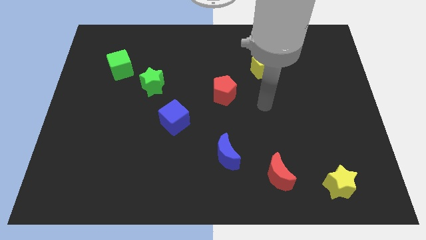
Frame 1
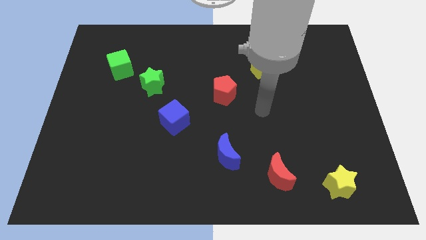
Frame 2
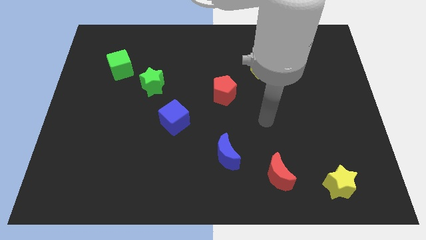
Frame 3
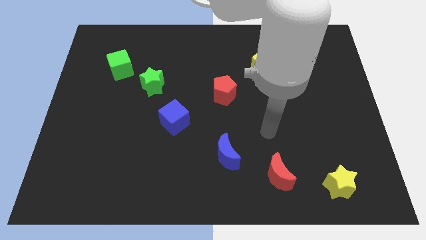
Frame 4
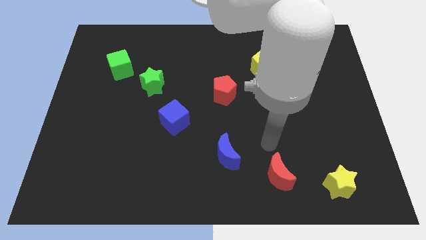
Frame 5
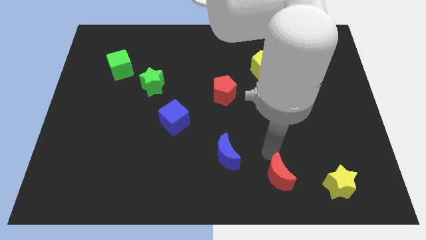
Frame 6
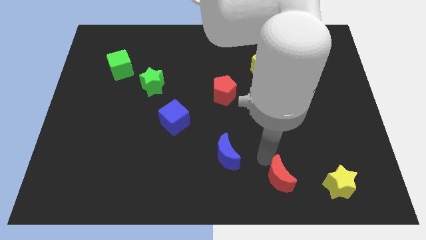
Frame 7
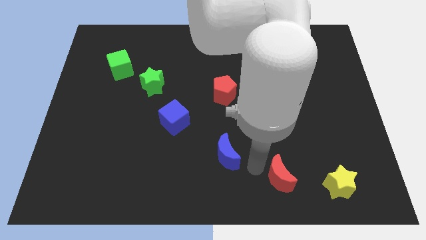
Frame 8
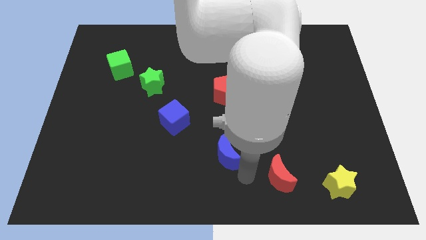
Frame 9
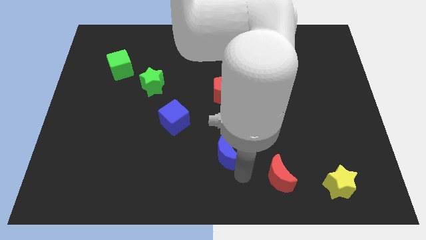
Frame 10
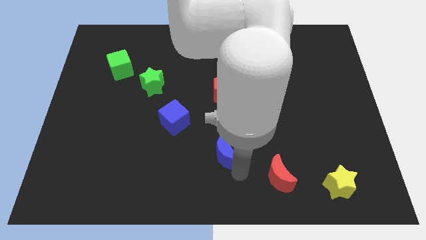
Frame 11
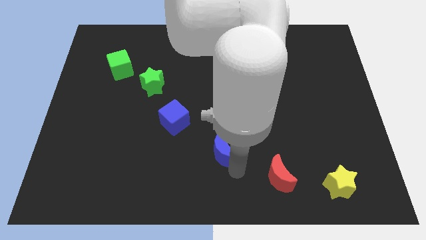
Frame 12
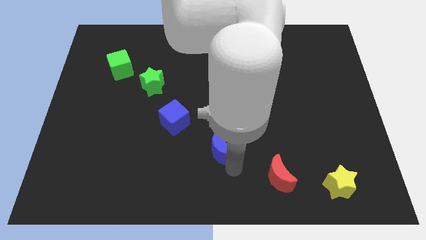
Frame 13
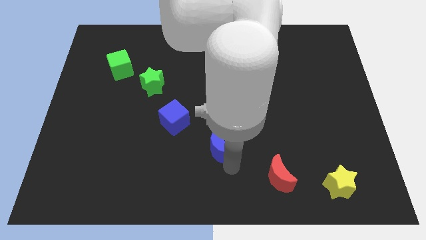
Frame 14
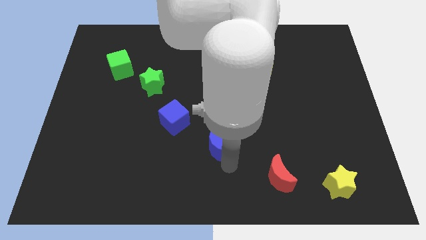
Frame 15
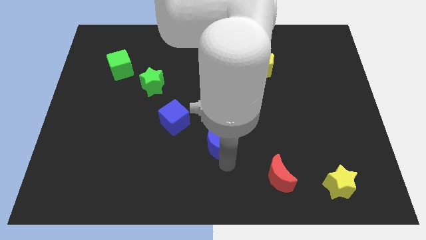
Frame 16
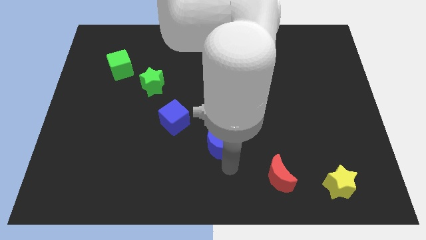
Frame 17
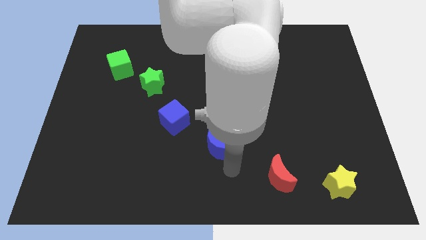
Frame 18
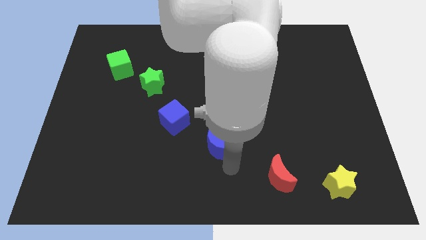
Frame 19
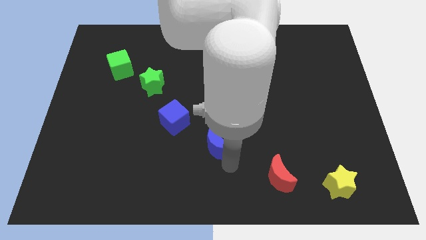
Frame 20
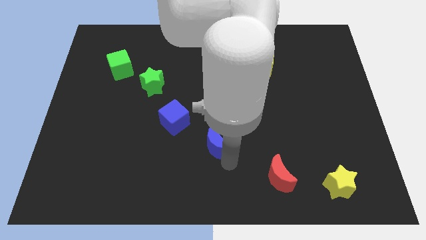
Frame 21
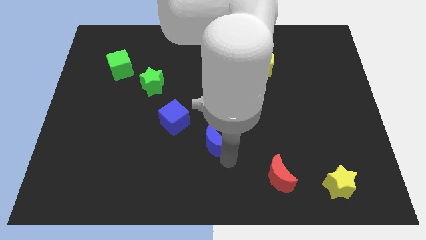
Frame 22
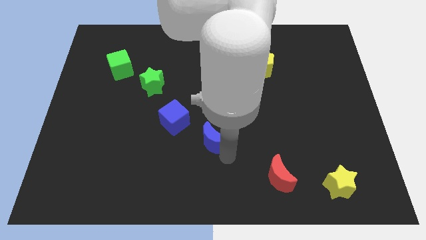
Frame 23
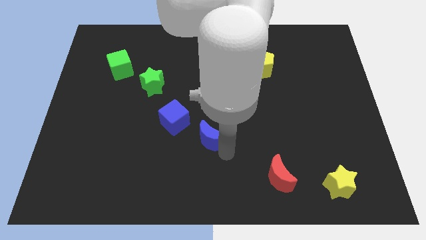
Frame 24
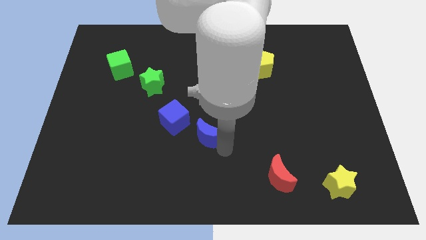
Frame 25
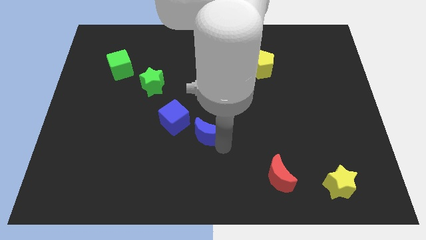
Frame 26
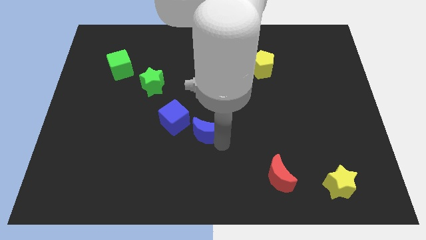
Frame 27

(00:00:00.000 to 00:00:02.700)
slightly slide the blue moon up and left

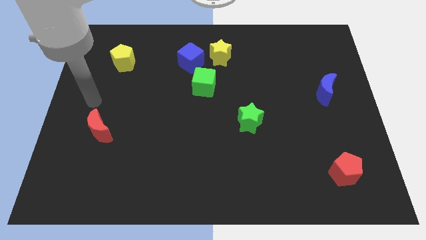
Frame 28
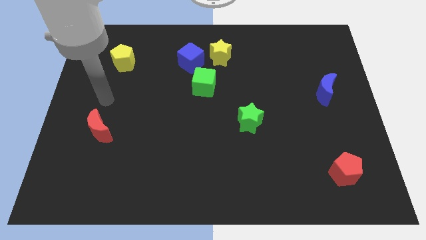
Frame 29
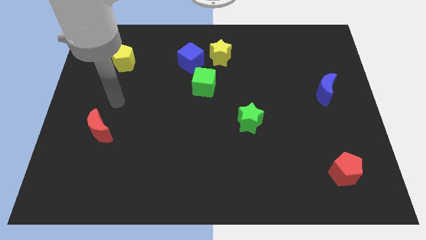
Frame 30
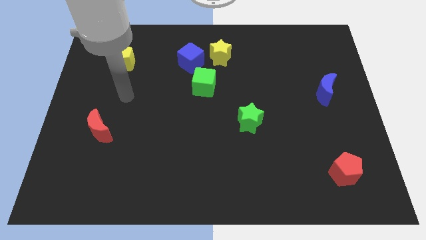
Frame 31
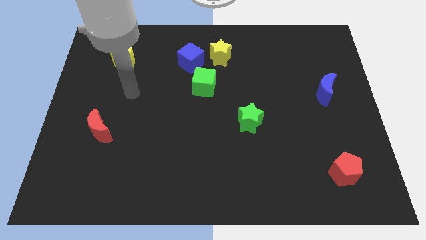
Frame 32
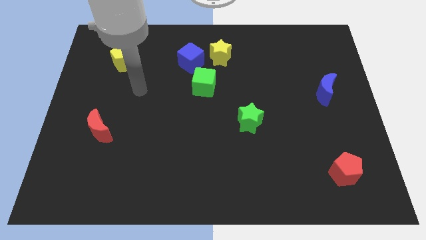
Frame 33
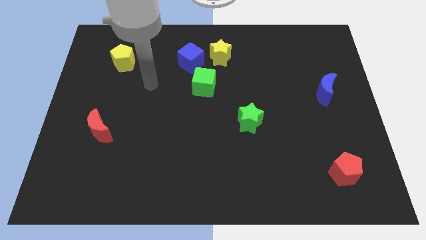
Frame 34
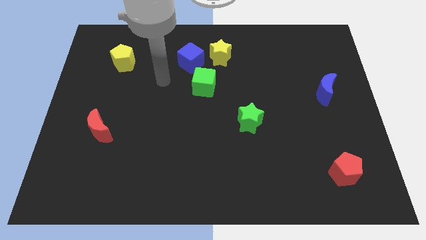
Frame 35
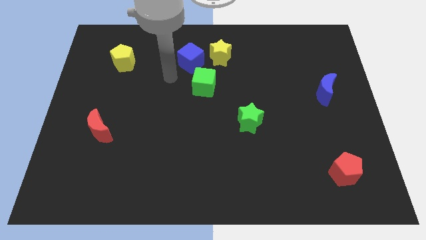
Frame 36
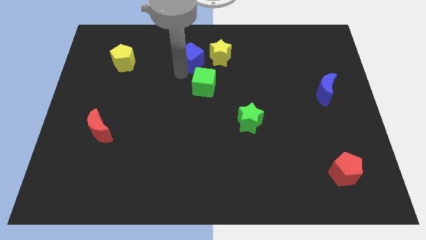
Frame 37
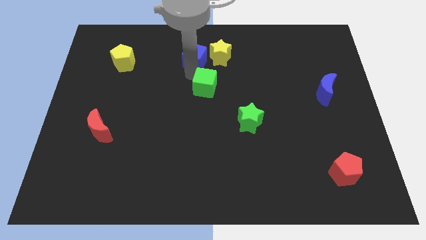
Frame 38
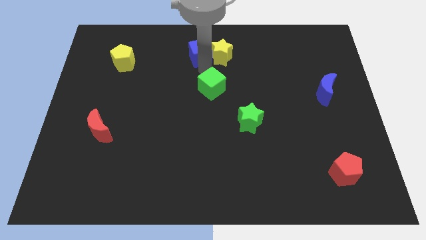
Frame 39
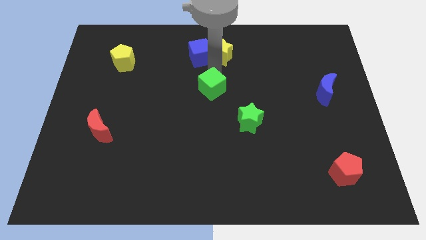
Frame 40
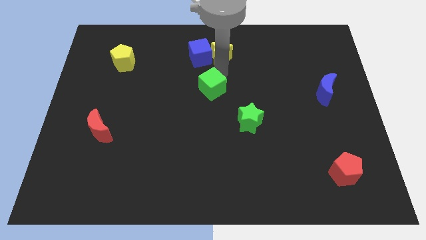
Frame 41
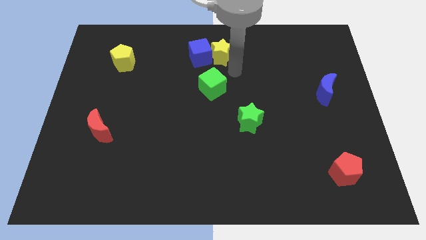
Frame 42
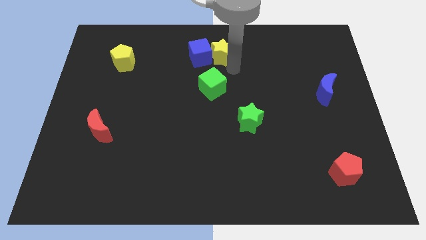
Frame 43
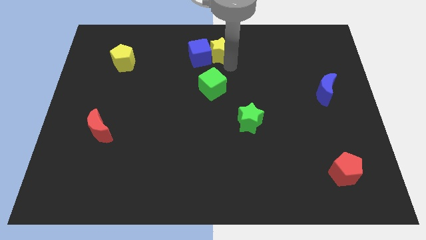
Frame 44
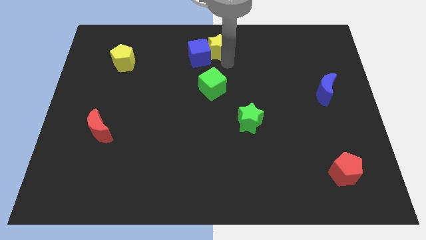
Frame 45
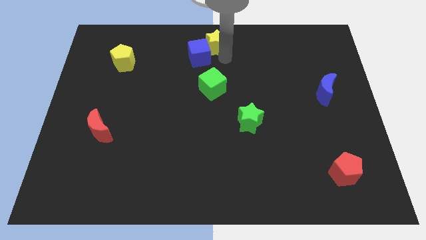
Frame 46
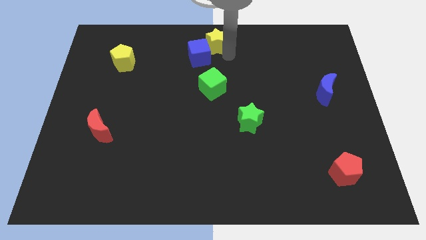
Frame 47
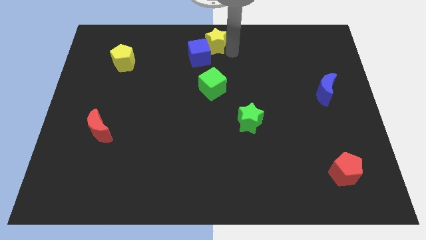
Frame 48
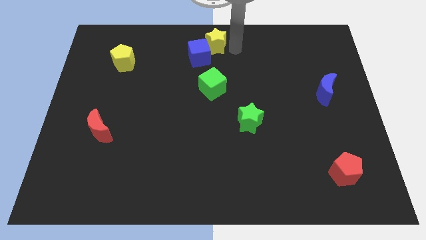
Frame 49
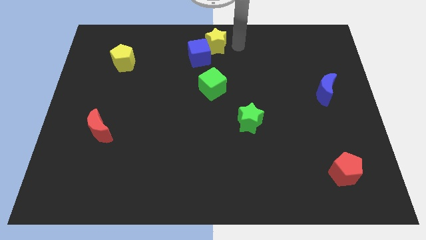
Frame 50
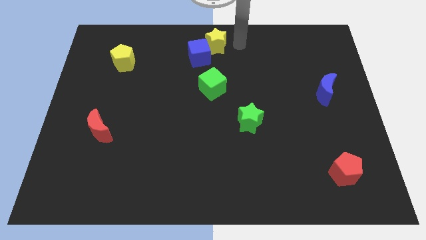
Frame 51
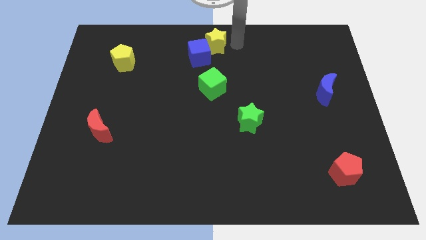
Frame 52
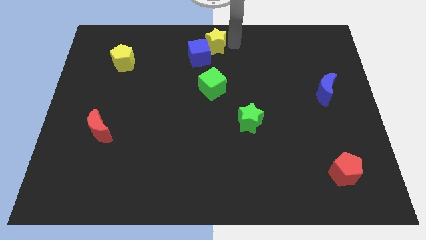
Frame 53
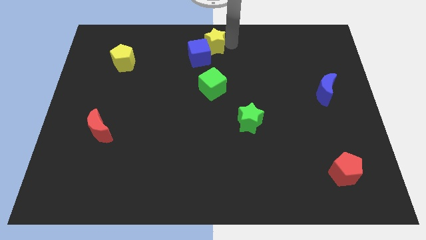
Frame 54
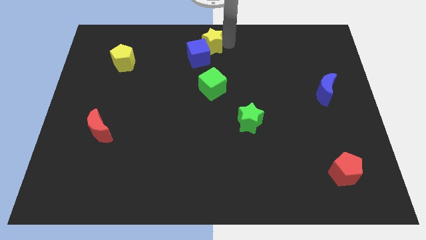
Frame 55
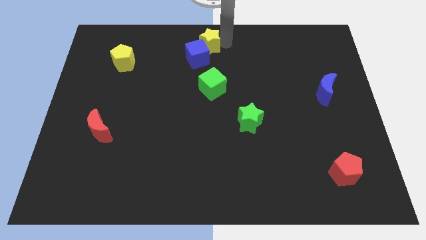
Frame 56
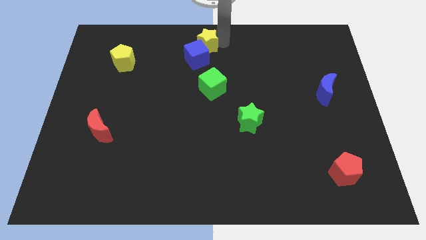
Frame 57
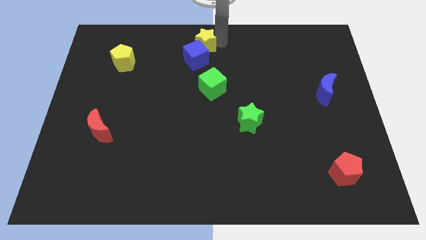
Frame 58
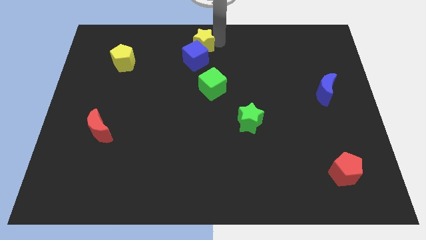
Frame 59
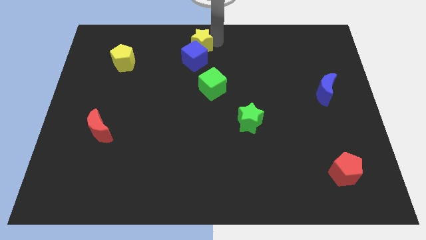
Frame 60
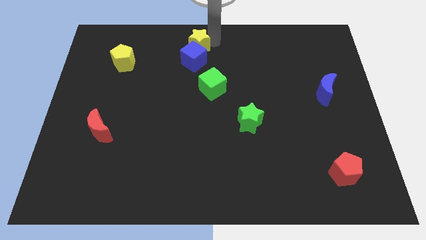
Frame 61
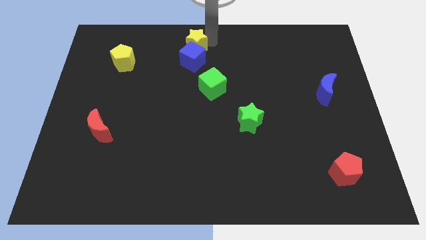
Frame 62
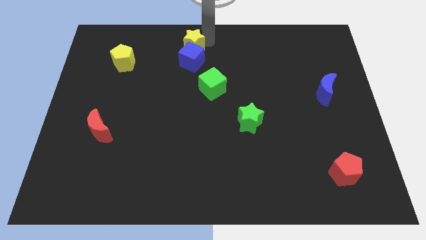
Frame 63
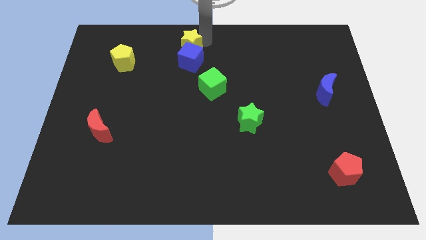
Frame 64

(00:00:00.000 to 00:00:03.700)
move the yellow star left a bit

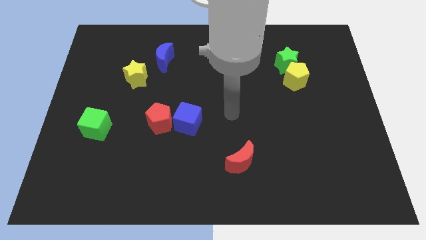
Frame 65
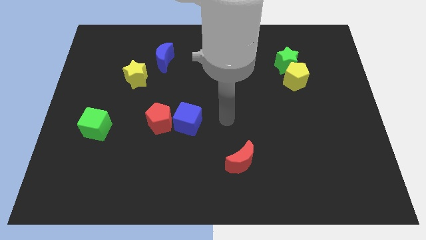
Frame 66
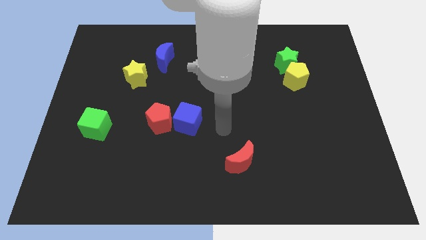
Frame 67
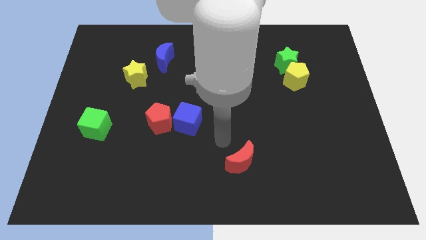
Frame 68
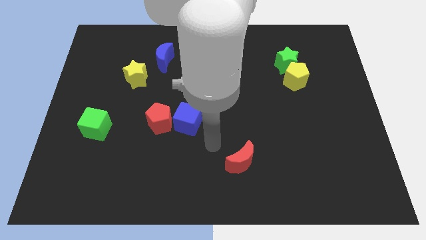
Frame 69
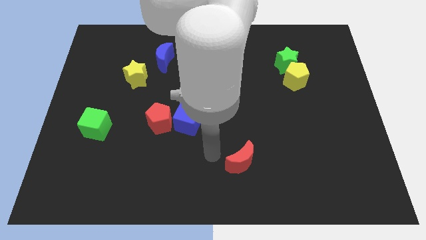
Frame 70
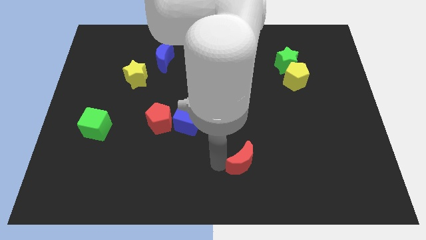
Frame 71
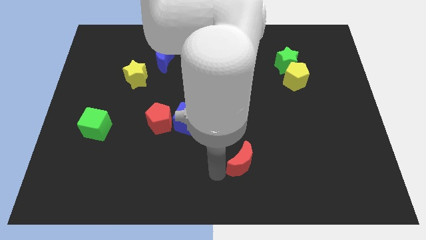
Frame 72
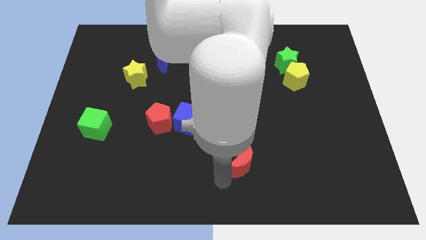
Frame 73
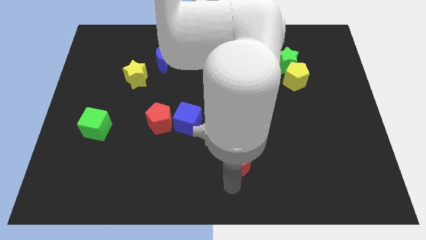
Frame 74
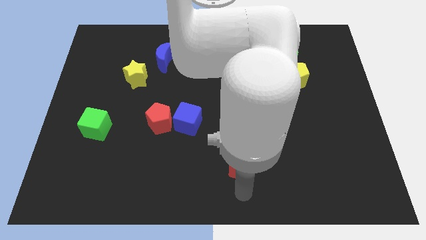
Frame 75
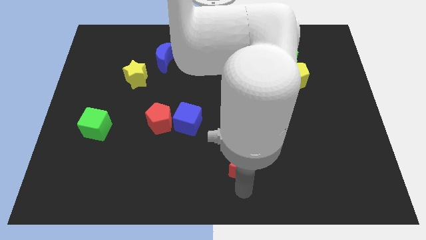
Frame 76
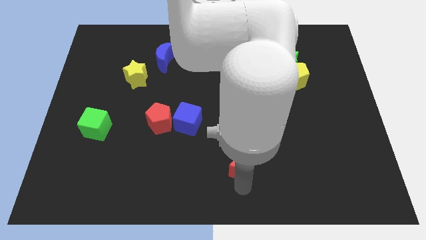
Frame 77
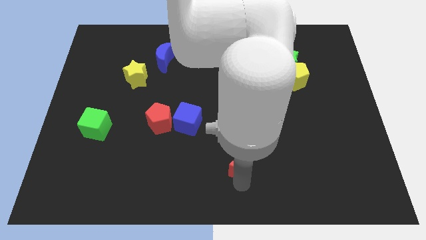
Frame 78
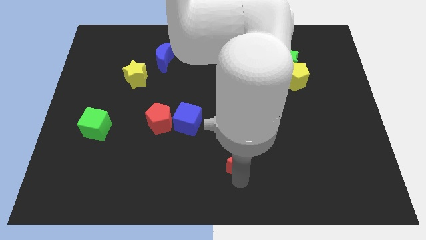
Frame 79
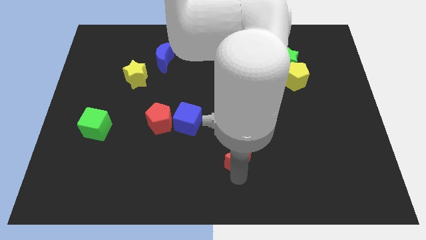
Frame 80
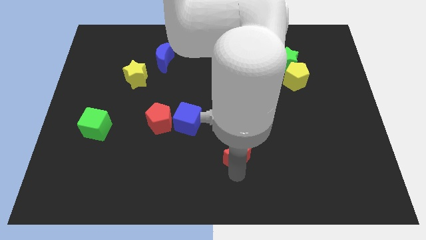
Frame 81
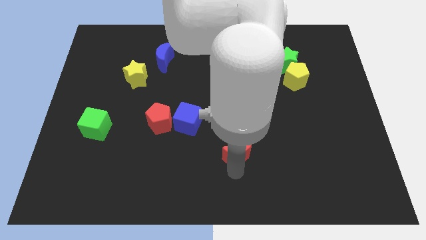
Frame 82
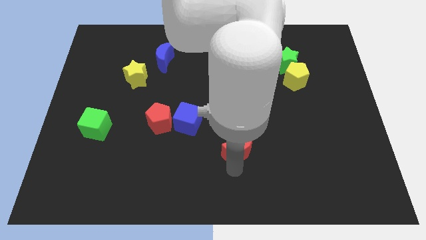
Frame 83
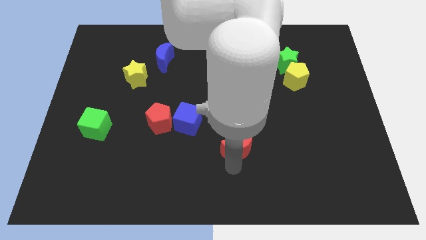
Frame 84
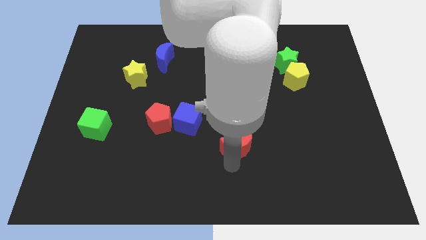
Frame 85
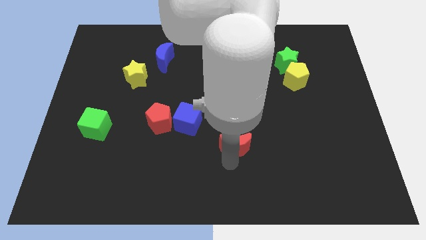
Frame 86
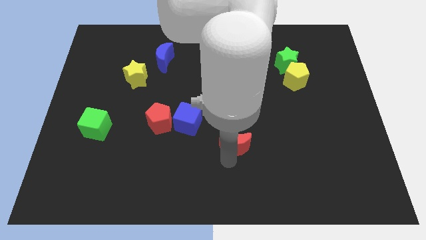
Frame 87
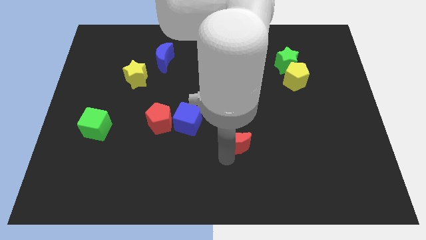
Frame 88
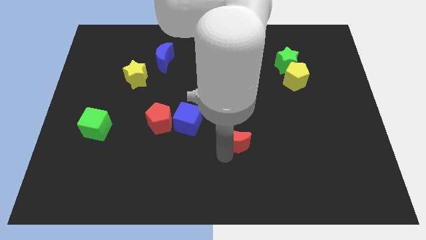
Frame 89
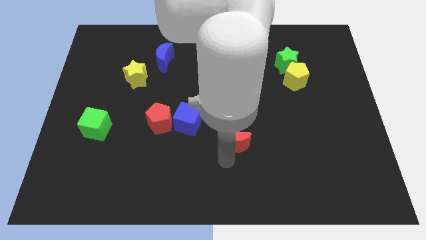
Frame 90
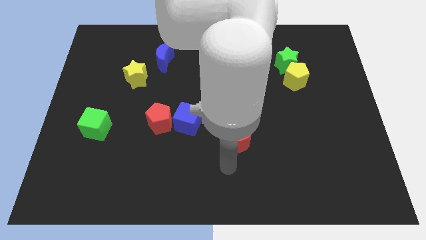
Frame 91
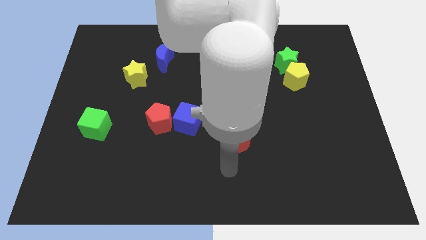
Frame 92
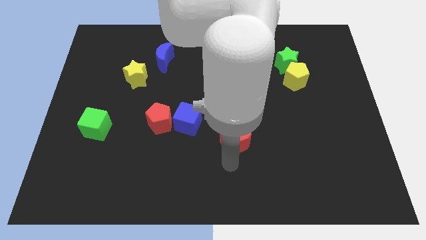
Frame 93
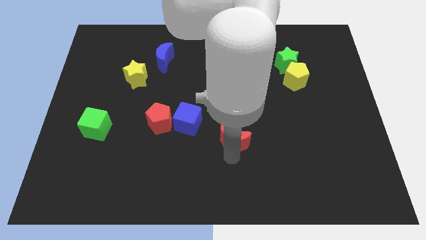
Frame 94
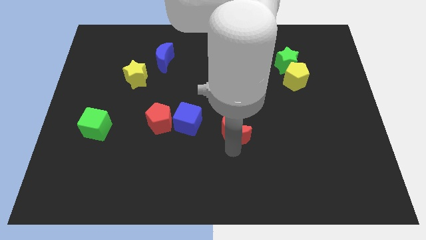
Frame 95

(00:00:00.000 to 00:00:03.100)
move the red moon a bit up
